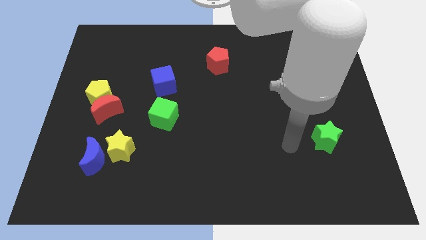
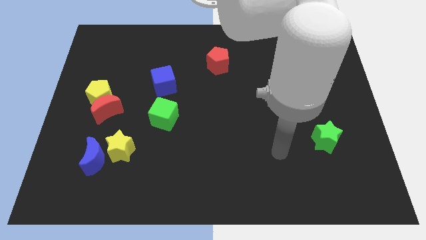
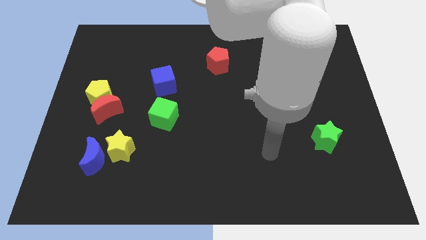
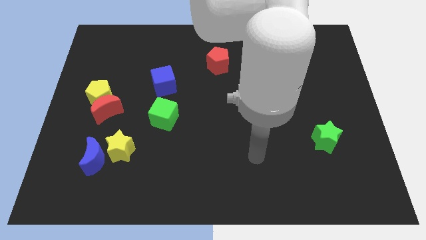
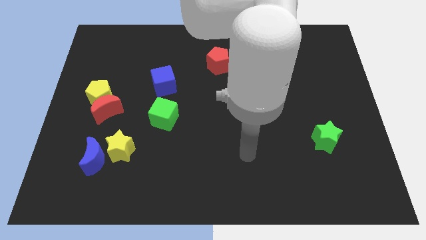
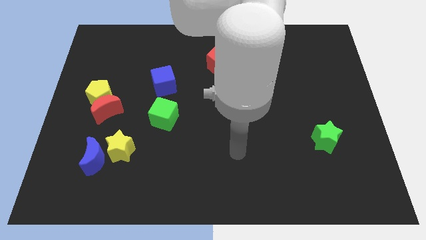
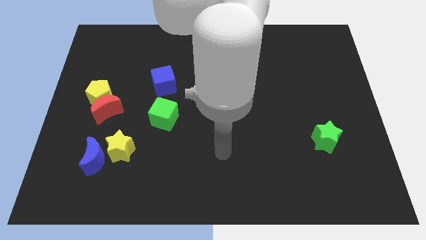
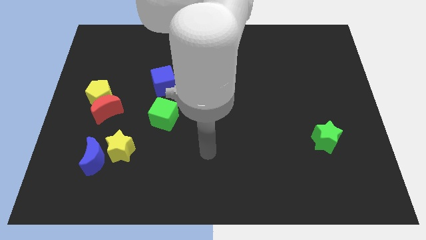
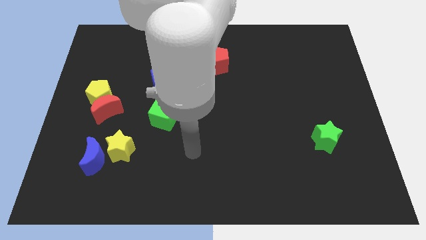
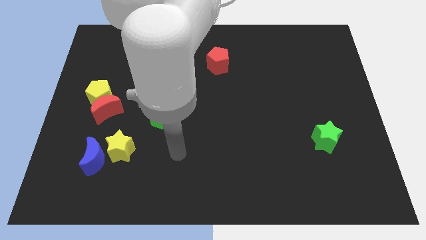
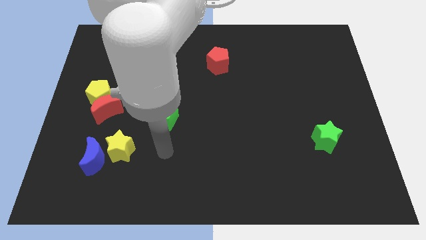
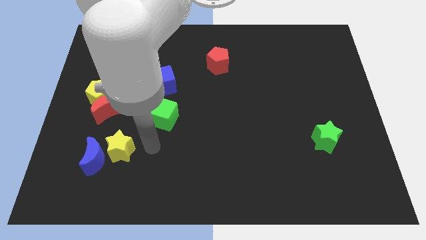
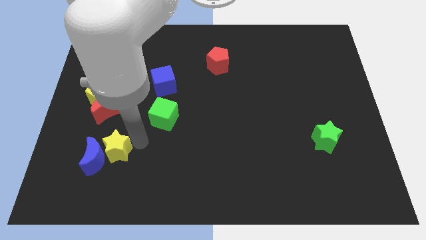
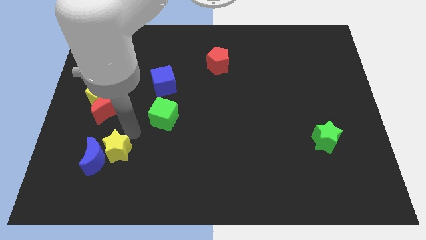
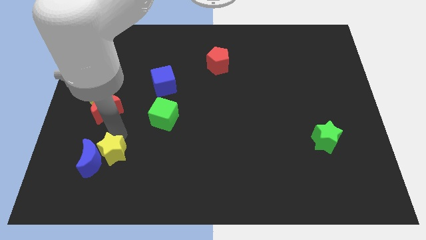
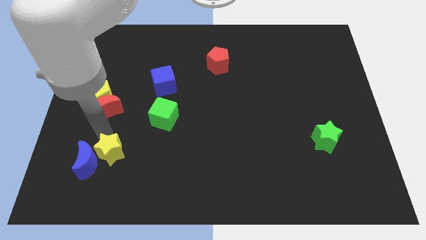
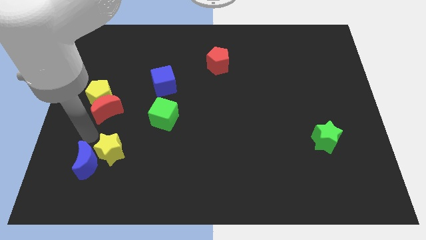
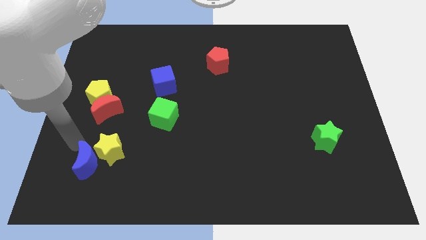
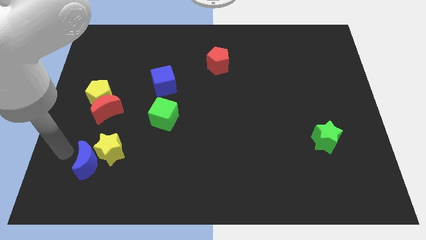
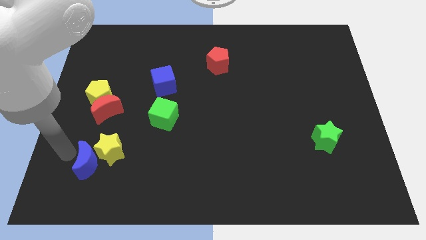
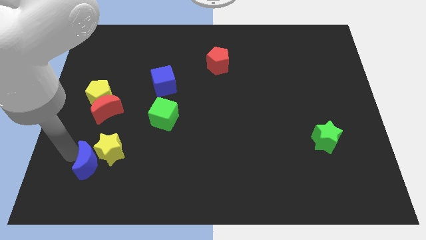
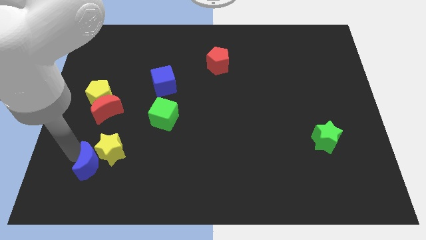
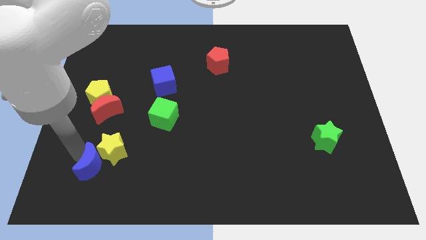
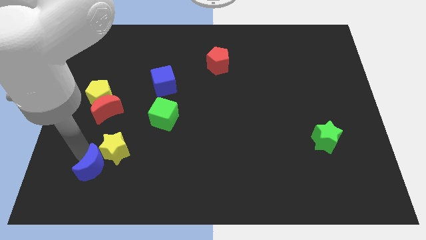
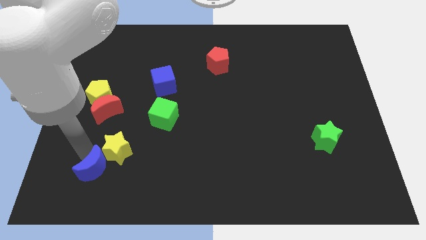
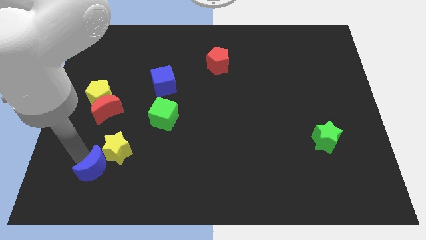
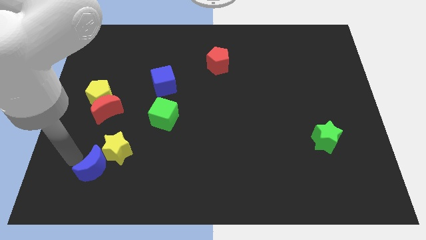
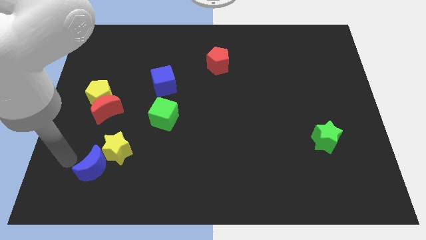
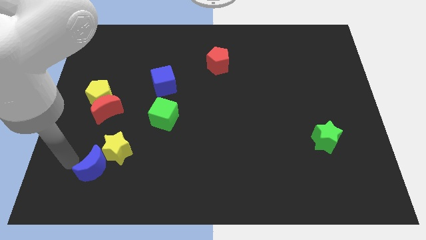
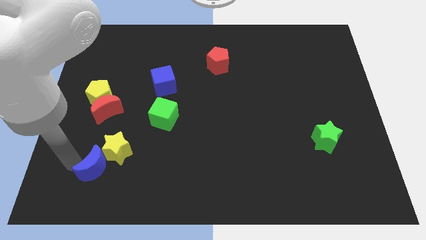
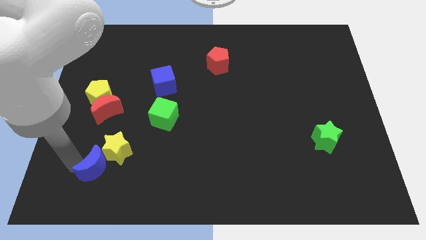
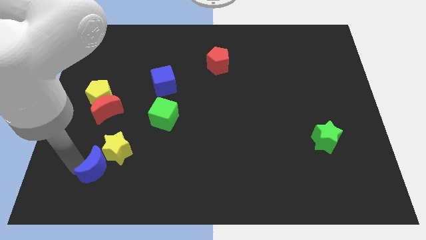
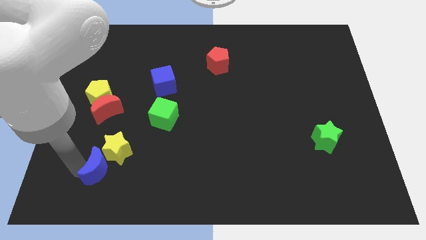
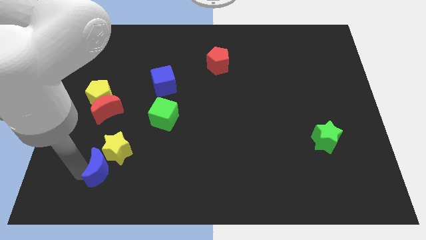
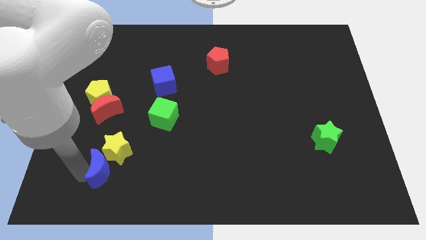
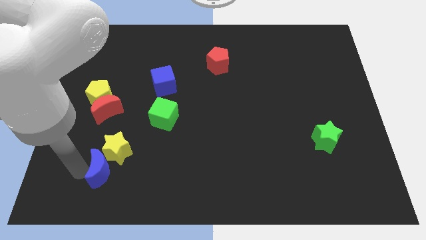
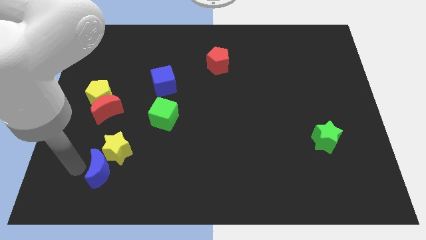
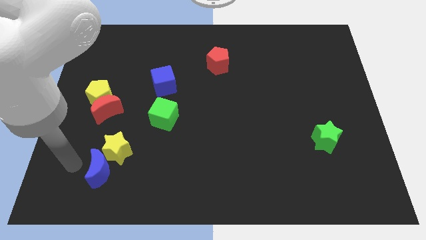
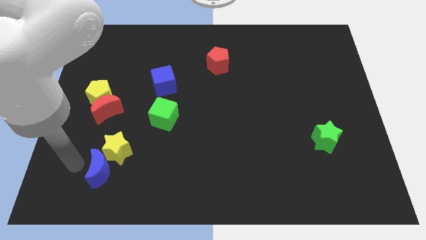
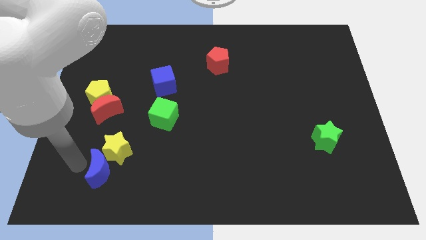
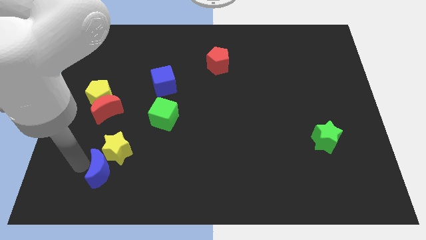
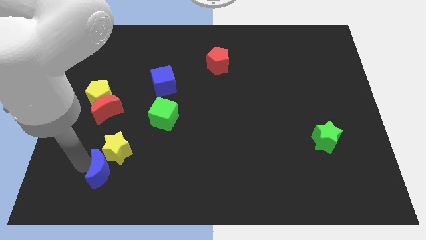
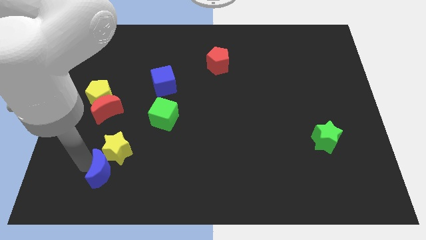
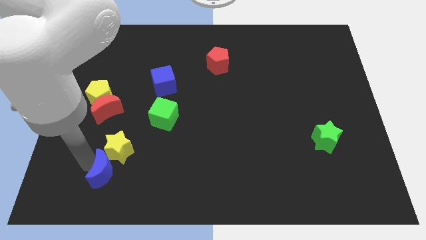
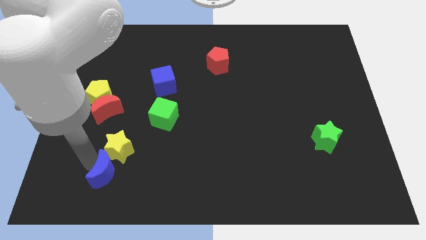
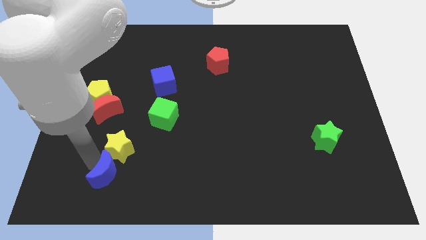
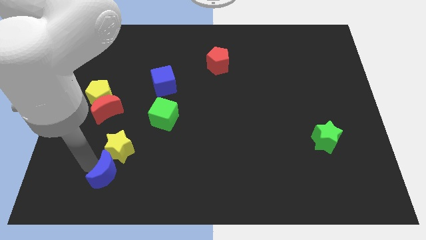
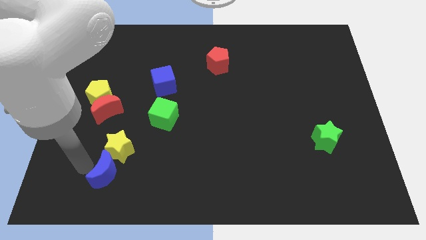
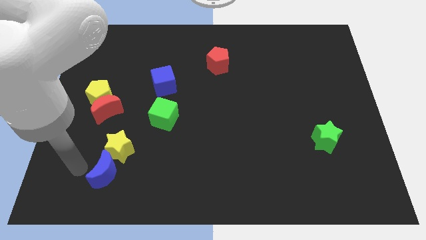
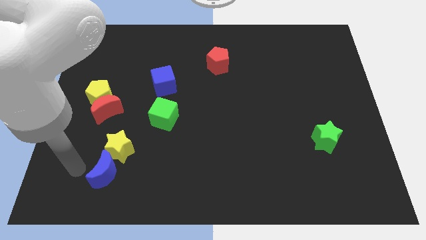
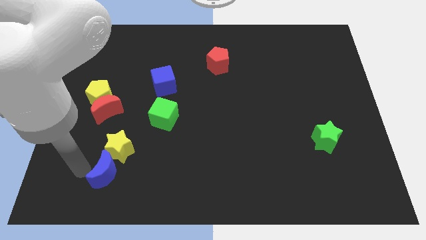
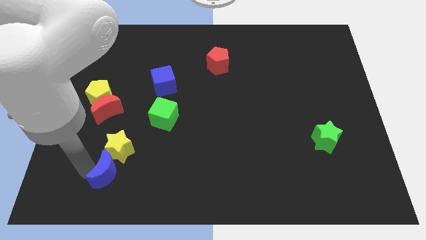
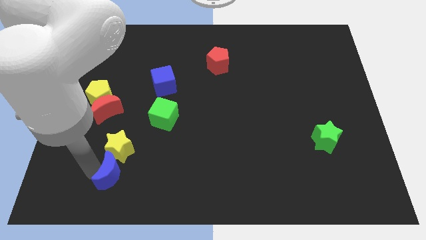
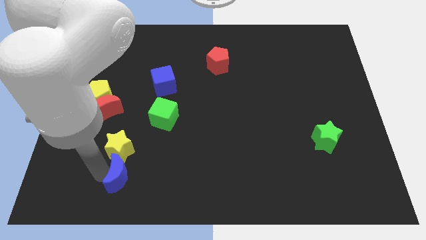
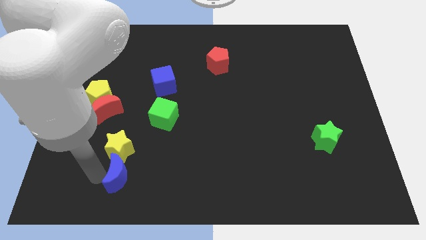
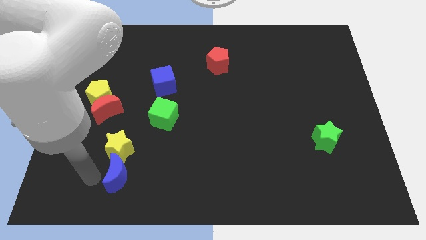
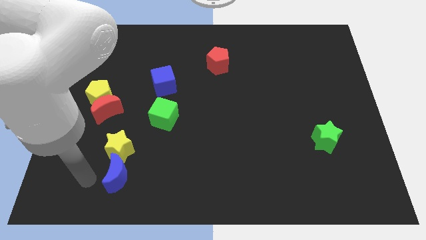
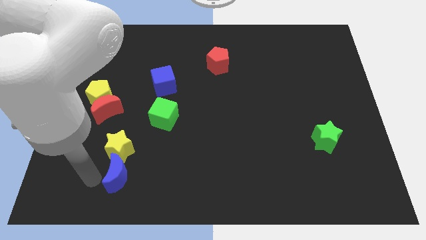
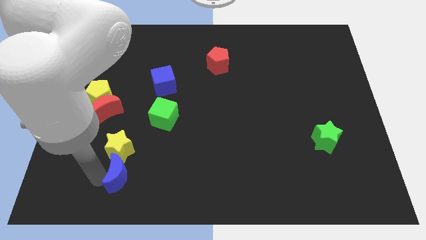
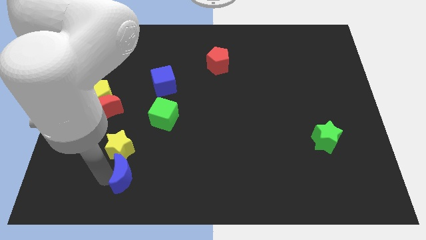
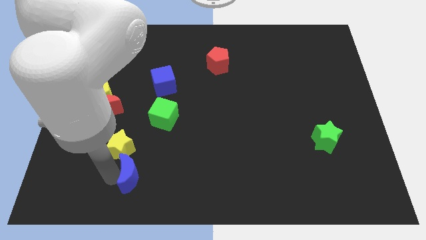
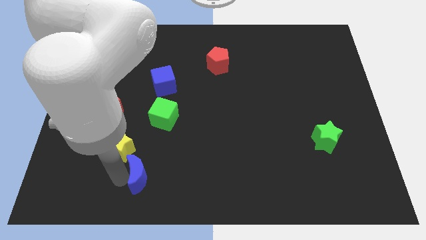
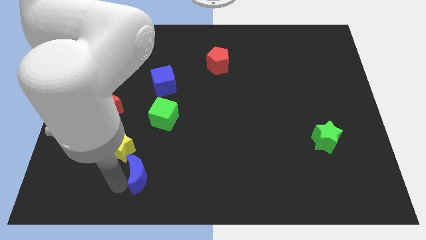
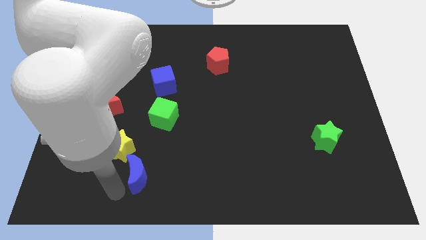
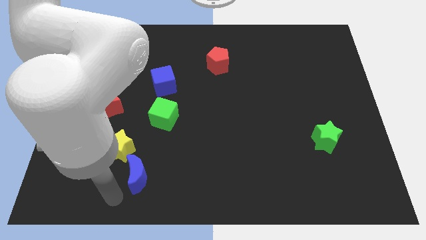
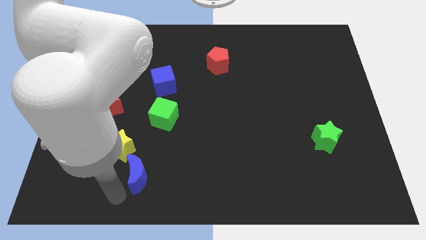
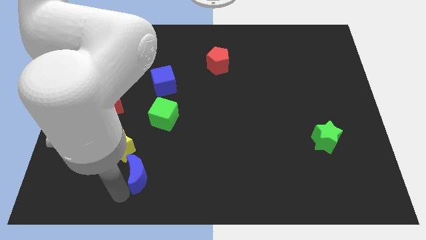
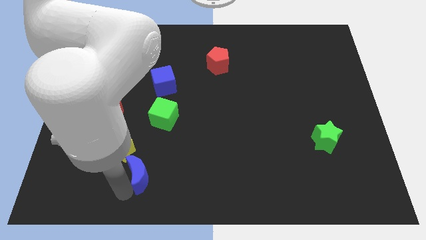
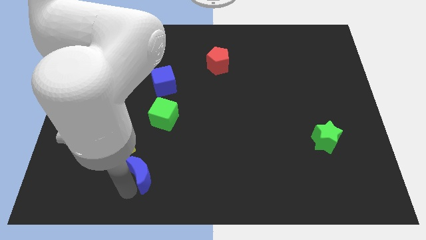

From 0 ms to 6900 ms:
put the blue moon below the green cube

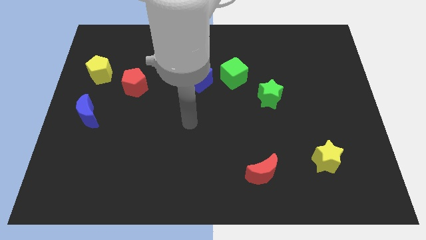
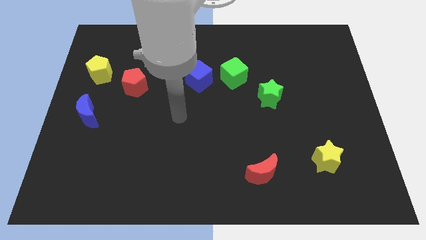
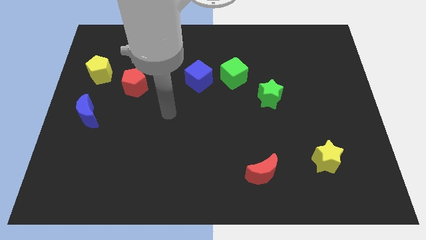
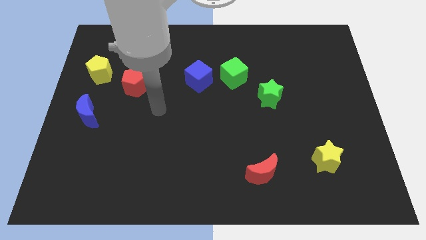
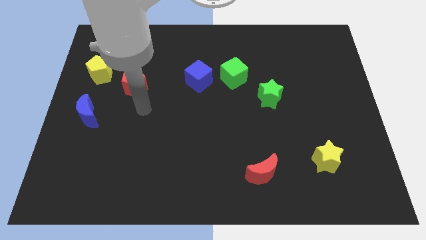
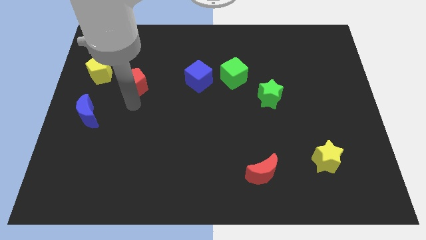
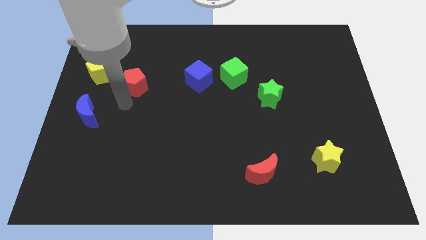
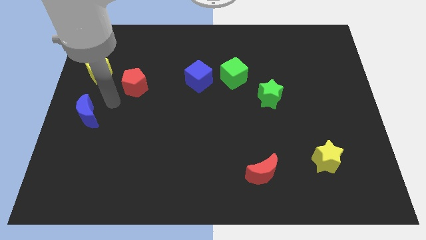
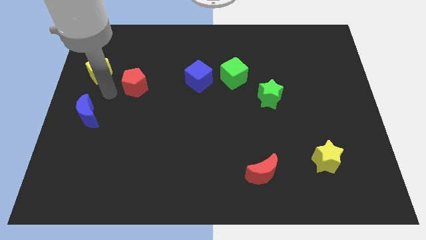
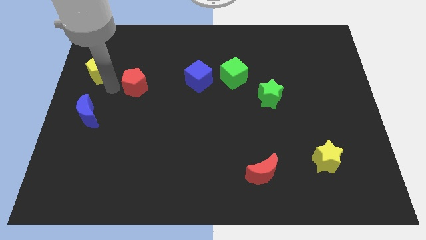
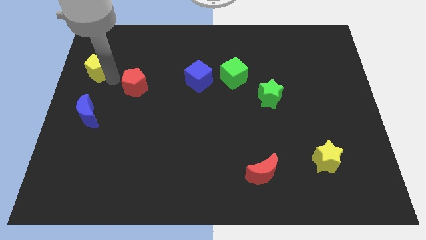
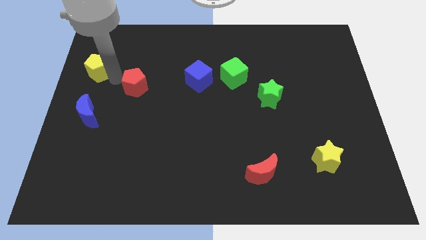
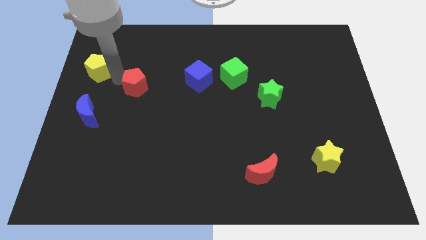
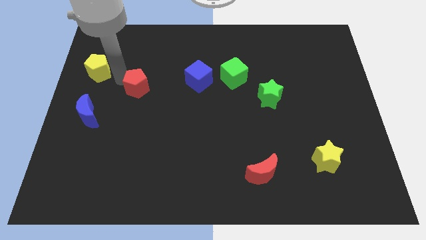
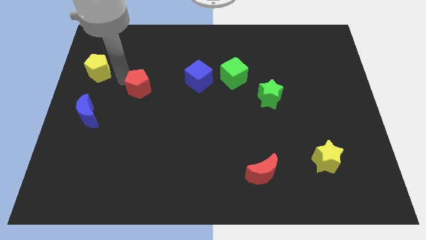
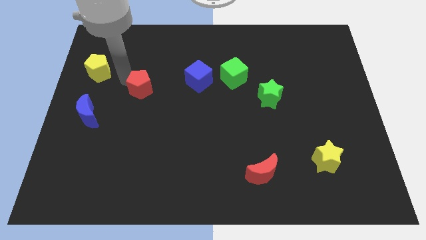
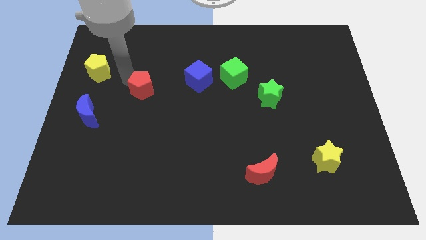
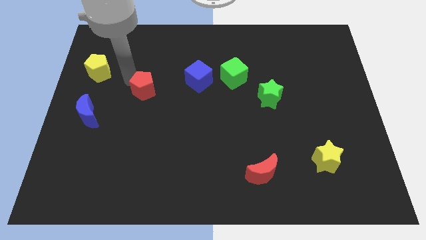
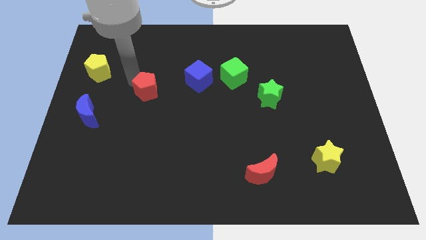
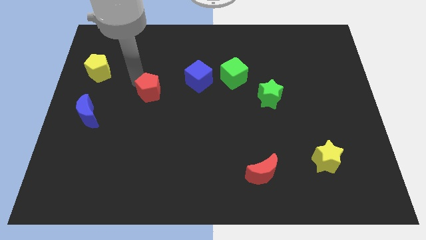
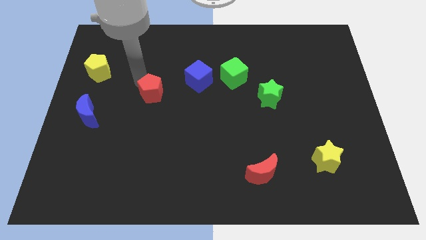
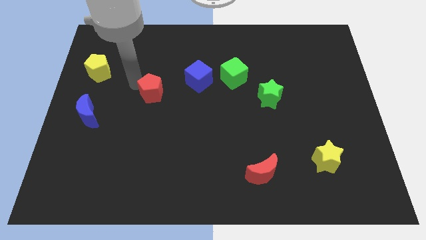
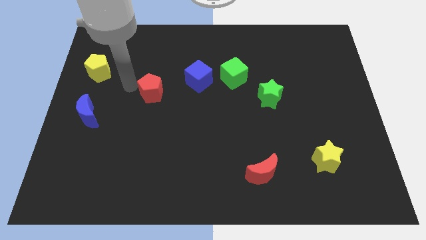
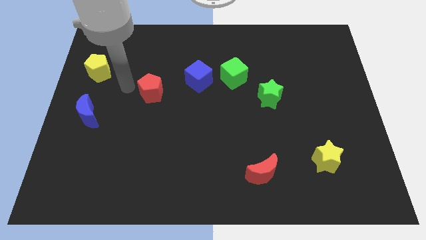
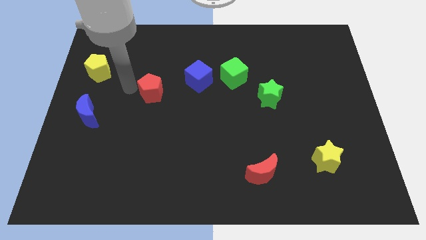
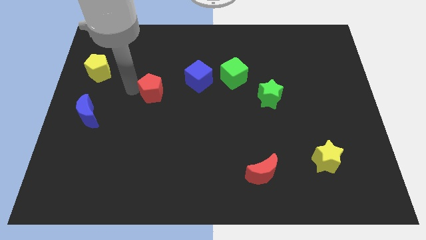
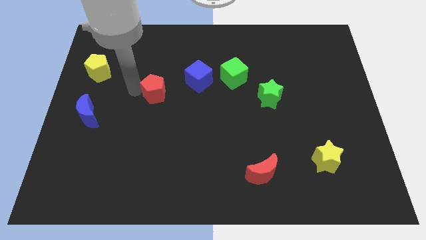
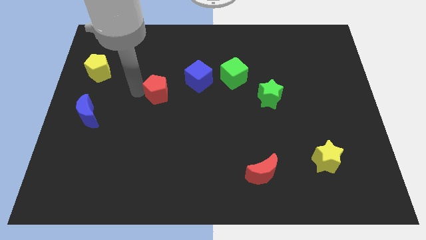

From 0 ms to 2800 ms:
slide the red pentagon to the bottom left side of the blue cube
